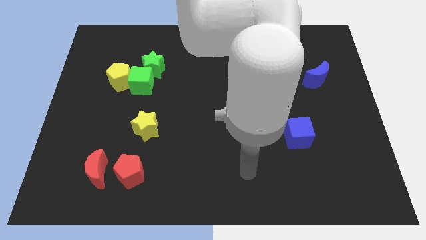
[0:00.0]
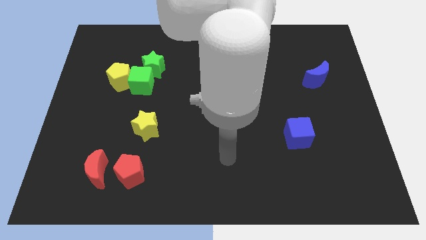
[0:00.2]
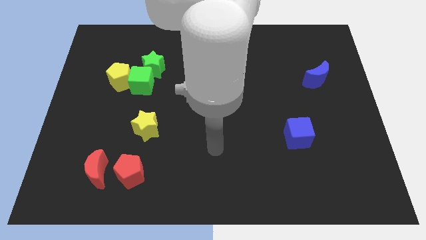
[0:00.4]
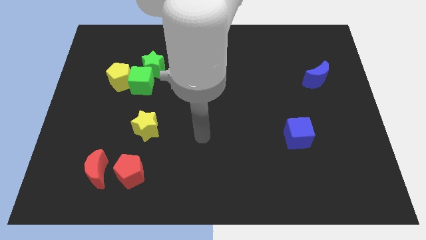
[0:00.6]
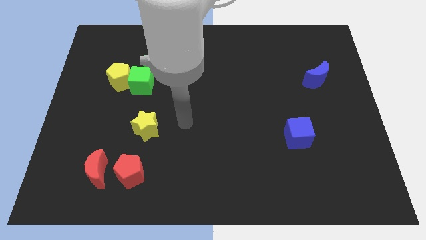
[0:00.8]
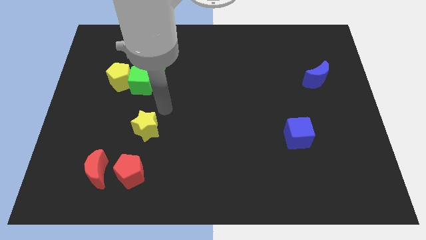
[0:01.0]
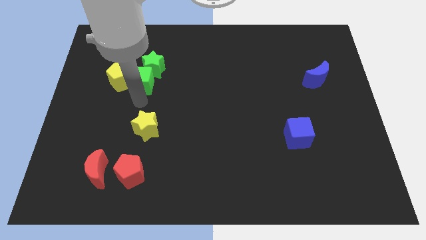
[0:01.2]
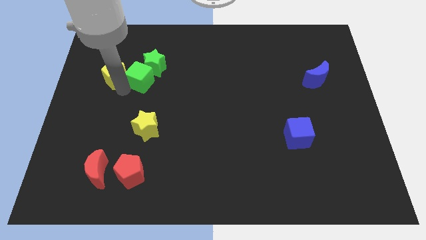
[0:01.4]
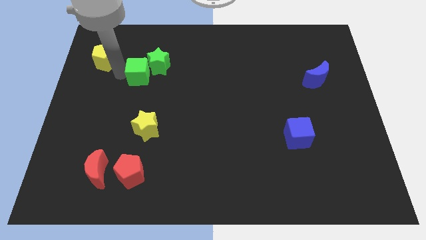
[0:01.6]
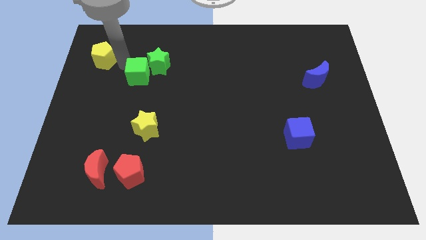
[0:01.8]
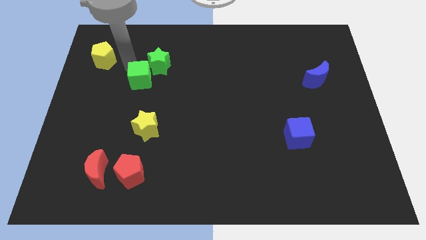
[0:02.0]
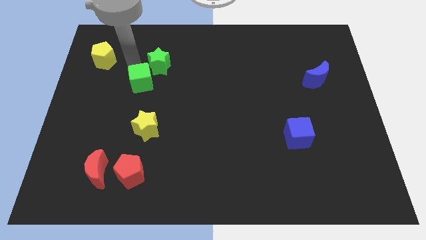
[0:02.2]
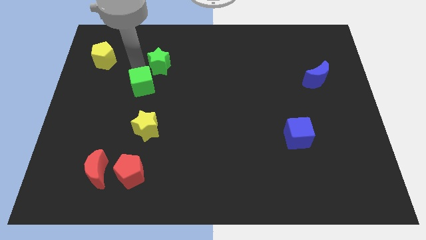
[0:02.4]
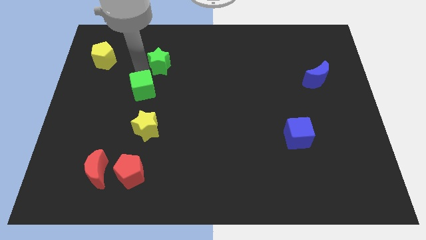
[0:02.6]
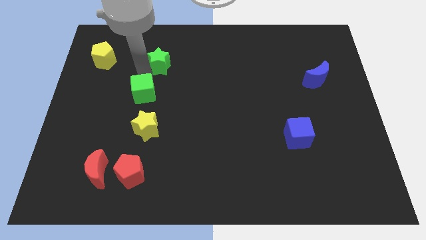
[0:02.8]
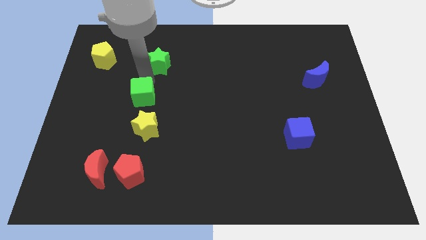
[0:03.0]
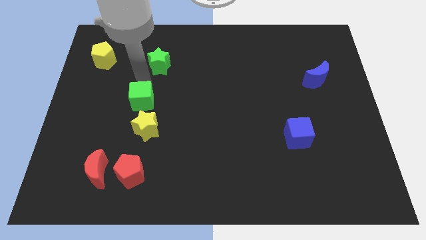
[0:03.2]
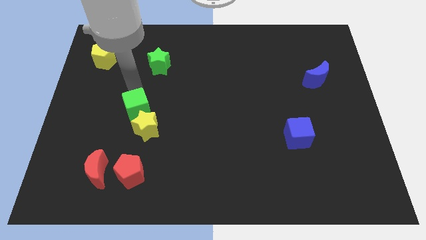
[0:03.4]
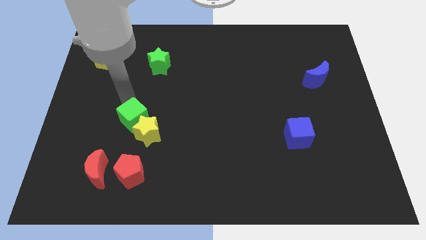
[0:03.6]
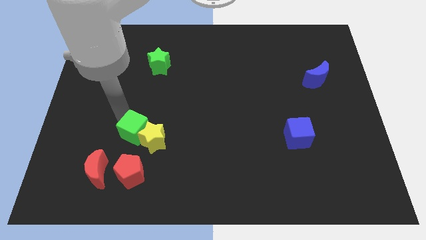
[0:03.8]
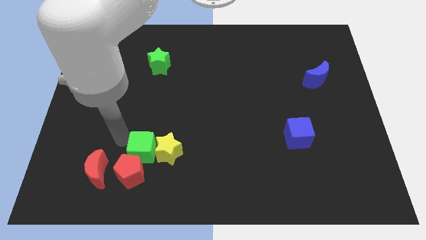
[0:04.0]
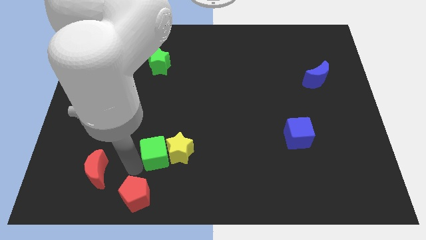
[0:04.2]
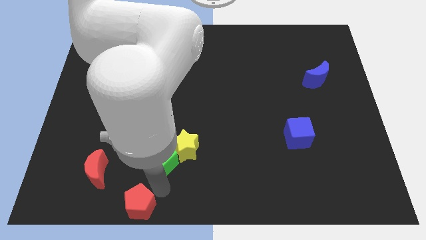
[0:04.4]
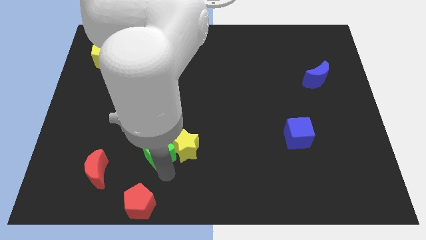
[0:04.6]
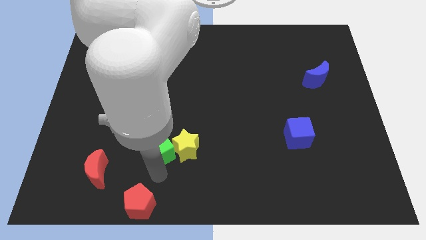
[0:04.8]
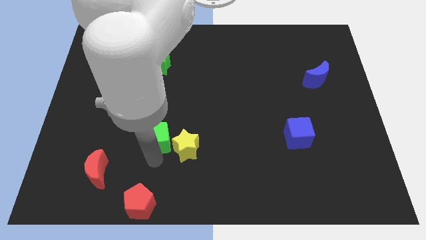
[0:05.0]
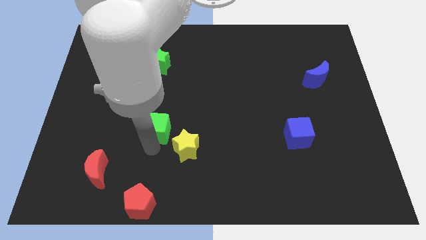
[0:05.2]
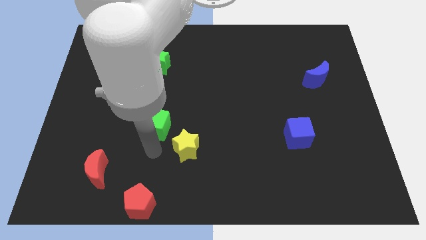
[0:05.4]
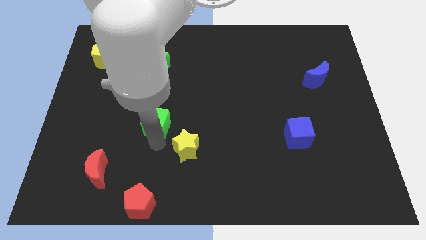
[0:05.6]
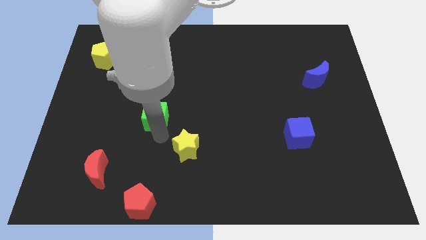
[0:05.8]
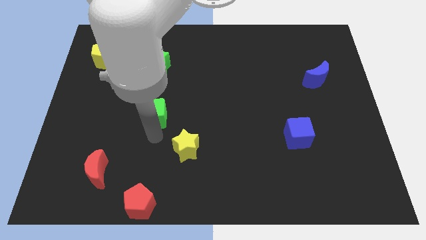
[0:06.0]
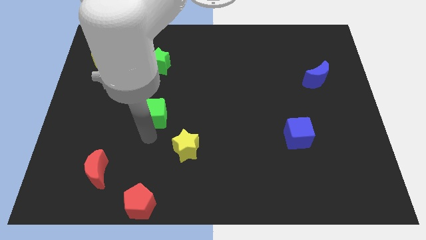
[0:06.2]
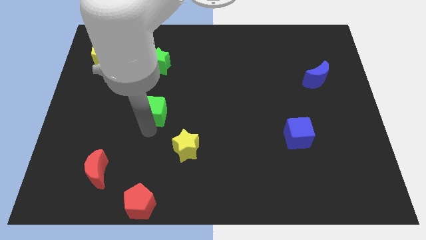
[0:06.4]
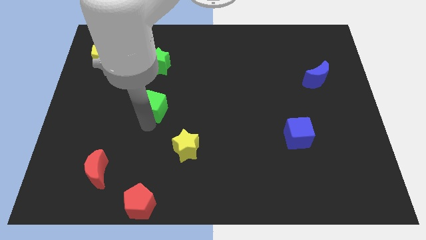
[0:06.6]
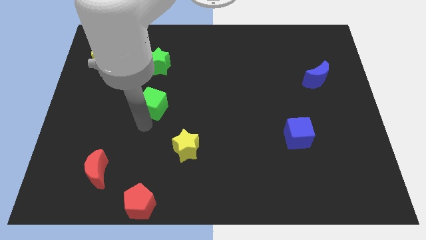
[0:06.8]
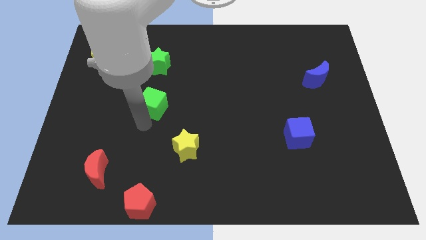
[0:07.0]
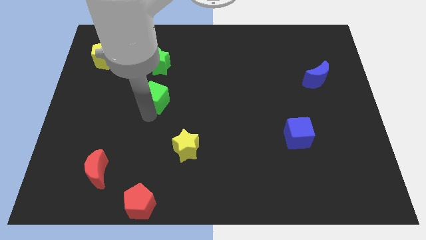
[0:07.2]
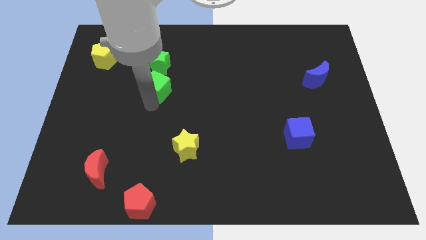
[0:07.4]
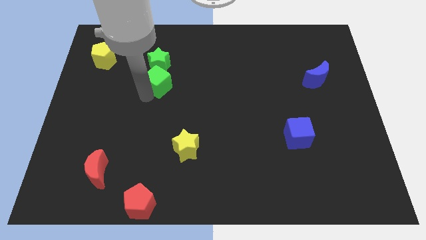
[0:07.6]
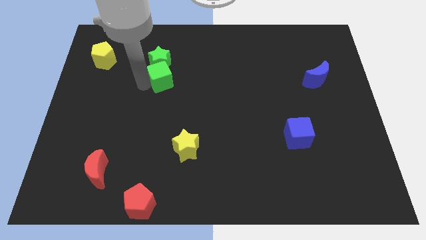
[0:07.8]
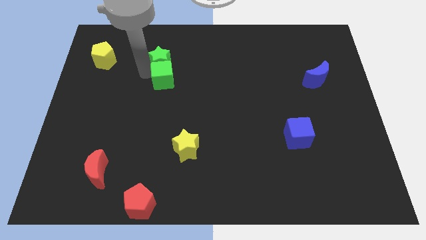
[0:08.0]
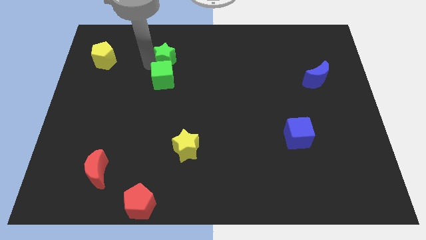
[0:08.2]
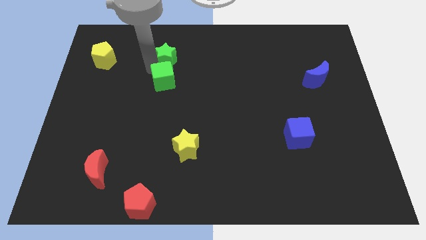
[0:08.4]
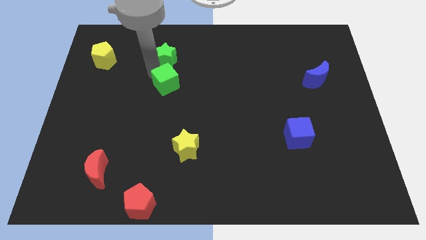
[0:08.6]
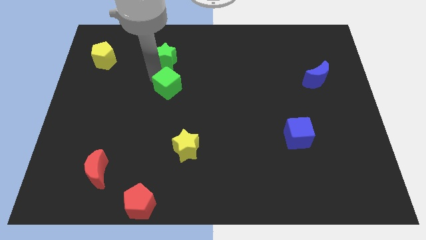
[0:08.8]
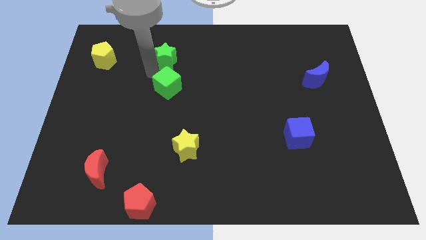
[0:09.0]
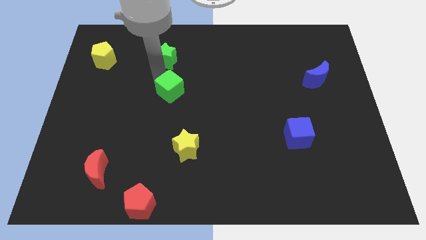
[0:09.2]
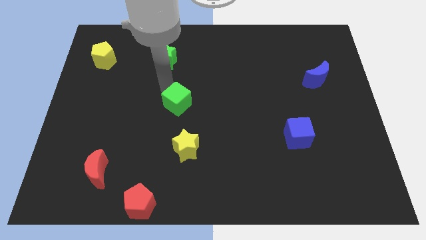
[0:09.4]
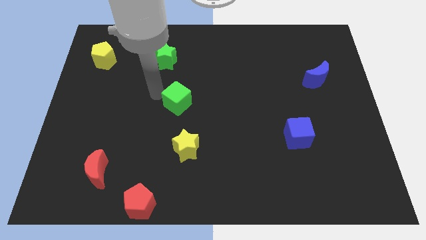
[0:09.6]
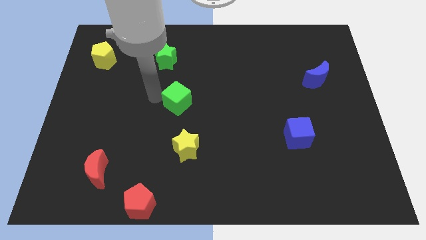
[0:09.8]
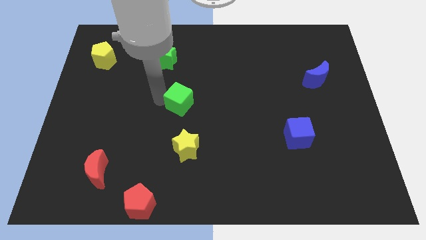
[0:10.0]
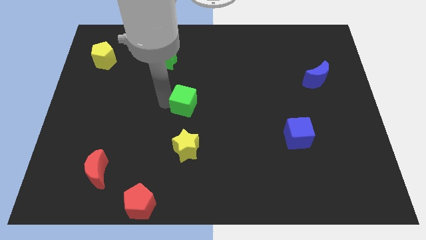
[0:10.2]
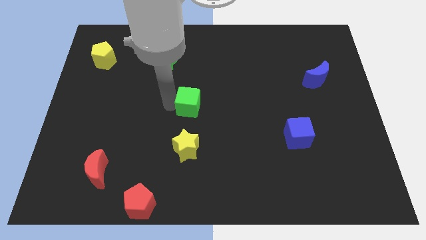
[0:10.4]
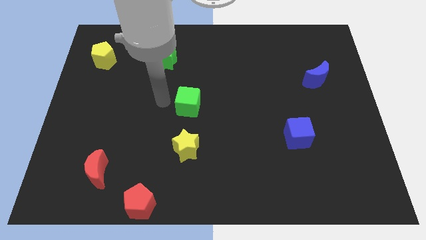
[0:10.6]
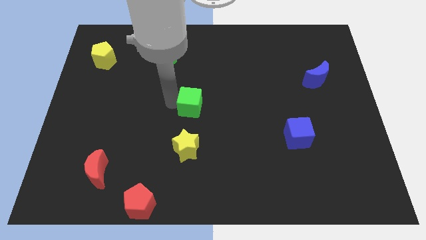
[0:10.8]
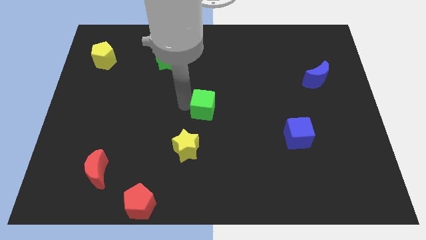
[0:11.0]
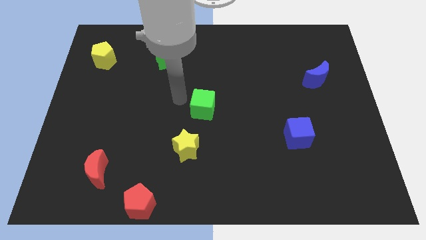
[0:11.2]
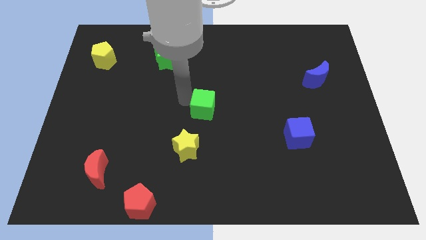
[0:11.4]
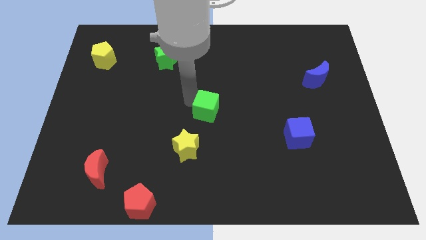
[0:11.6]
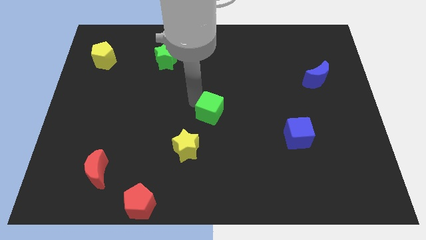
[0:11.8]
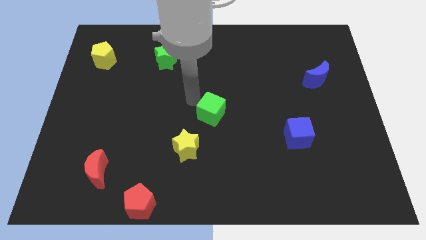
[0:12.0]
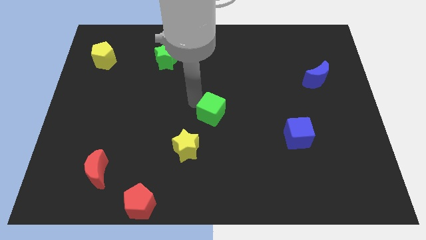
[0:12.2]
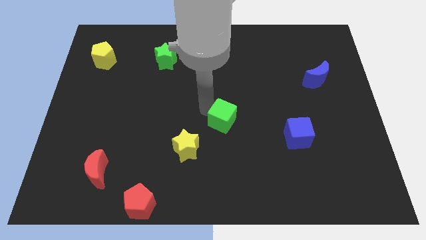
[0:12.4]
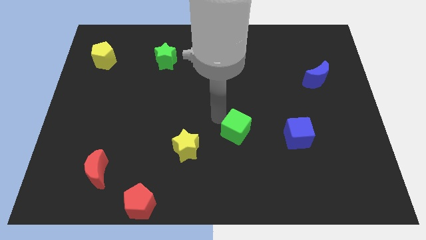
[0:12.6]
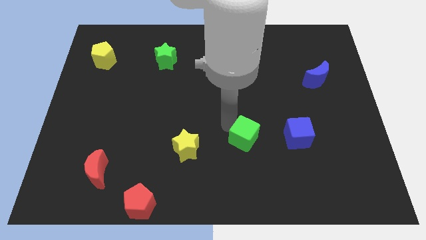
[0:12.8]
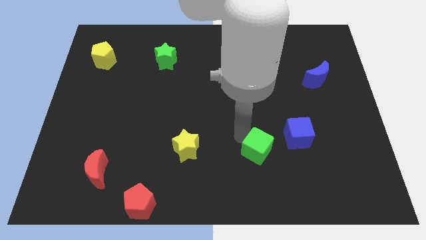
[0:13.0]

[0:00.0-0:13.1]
move the green cube diagonally down and to the left of the blue cube
